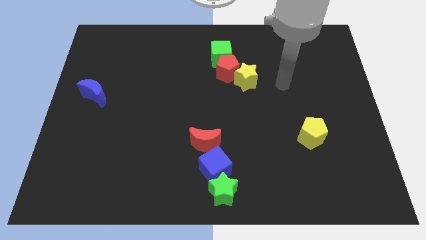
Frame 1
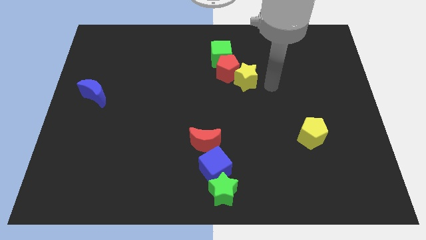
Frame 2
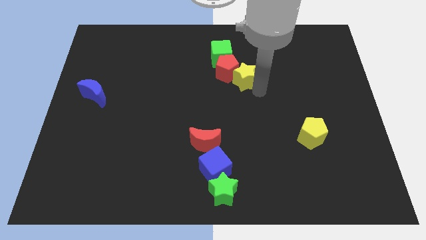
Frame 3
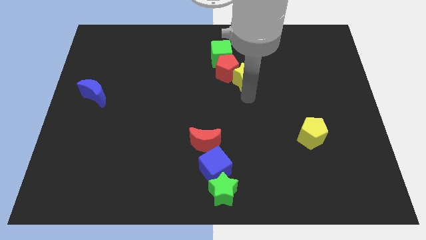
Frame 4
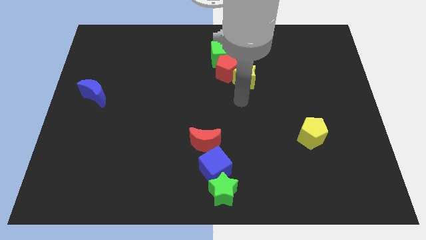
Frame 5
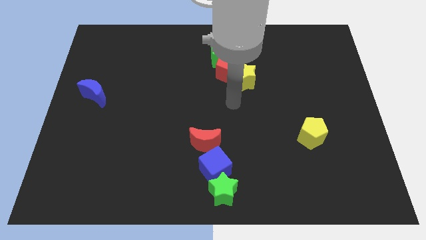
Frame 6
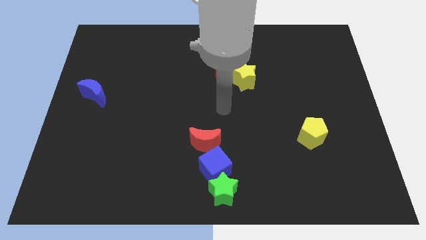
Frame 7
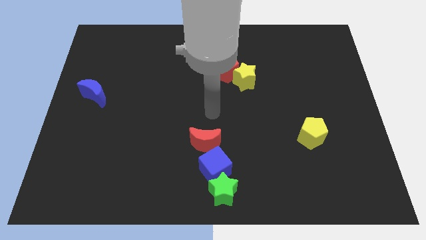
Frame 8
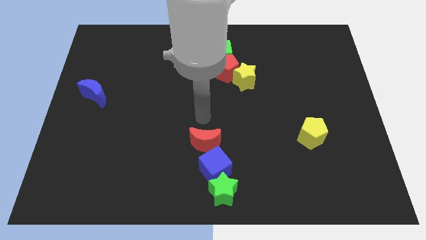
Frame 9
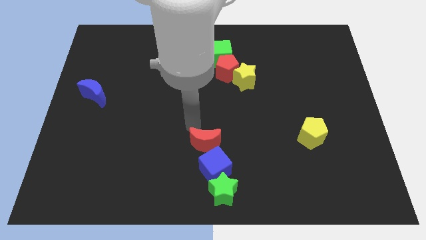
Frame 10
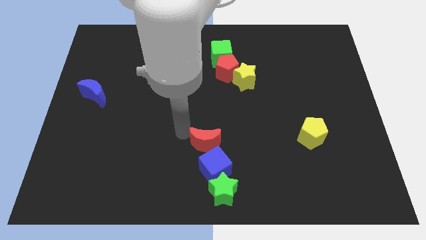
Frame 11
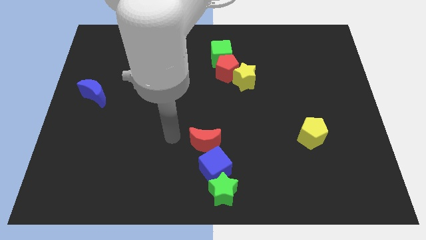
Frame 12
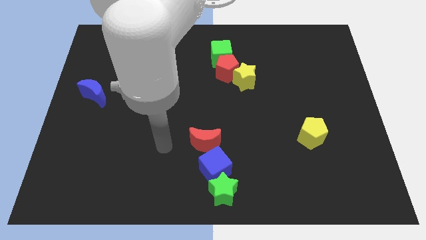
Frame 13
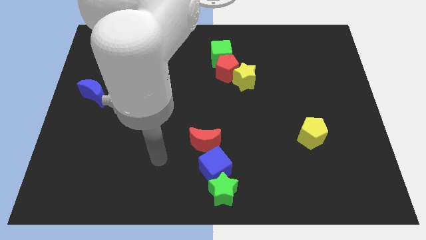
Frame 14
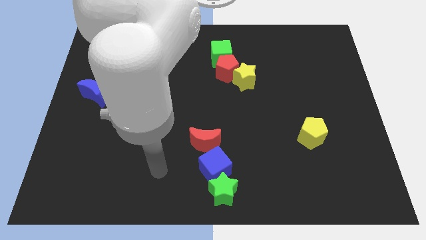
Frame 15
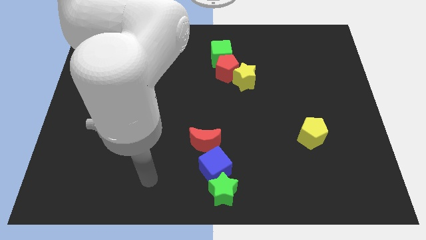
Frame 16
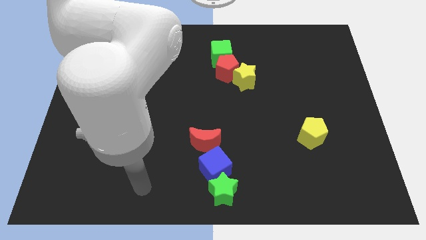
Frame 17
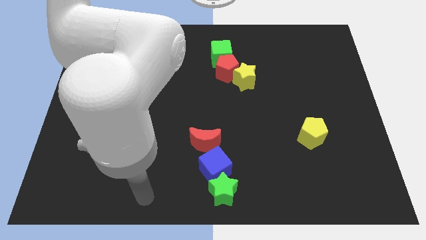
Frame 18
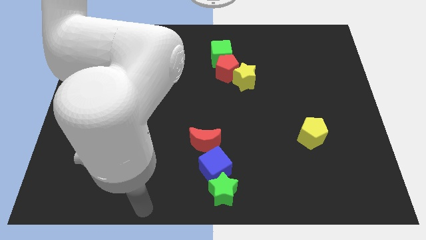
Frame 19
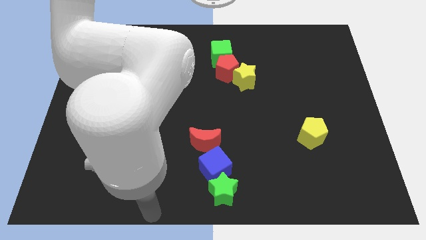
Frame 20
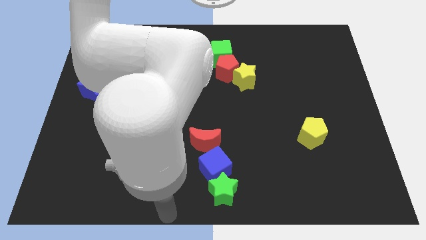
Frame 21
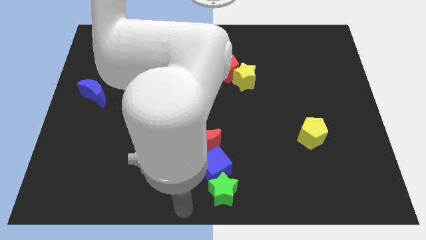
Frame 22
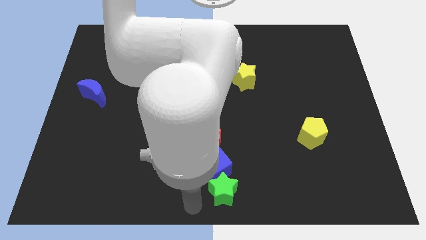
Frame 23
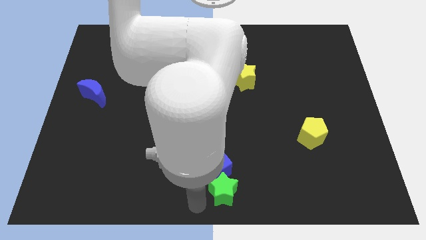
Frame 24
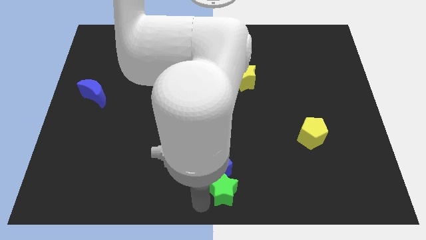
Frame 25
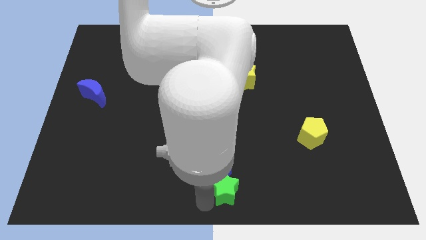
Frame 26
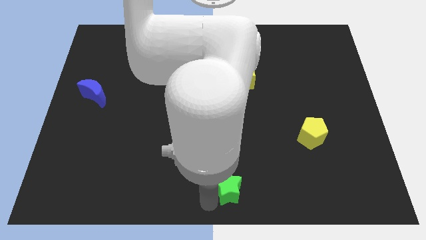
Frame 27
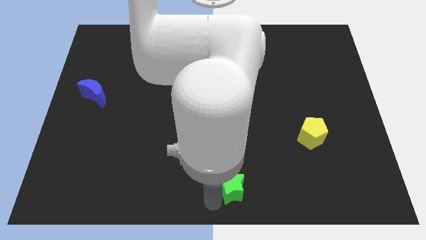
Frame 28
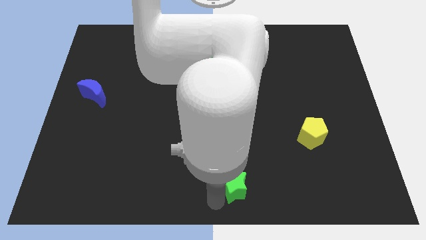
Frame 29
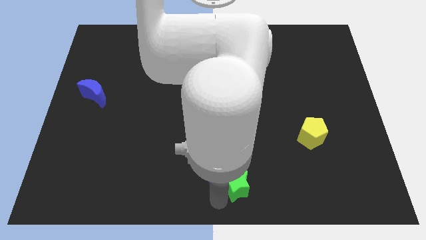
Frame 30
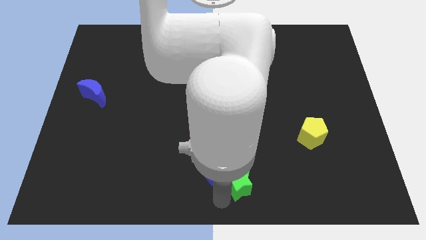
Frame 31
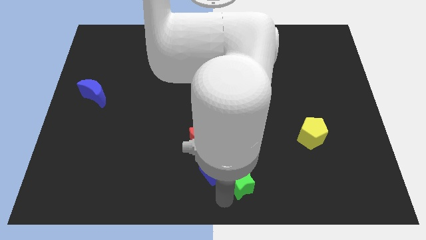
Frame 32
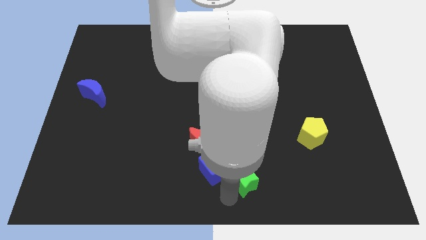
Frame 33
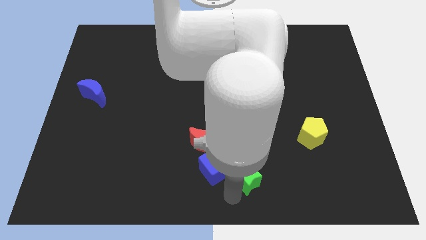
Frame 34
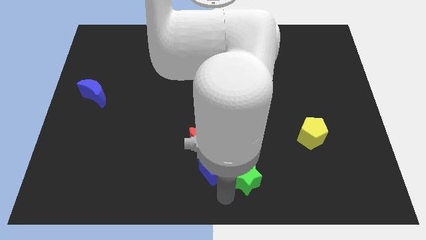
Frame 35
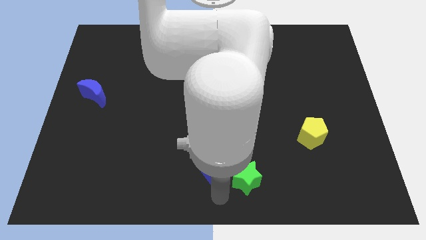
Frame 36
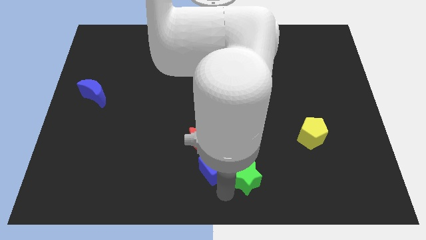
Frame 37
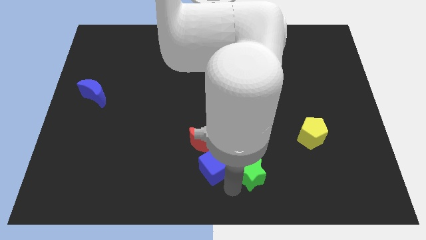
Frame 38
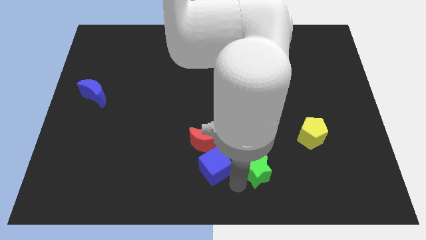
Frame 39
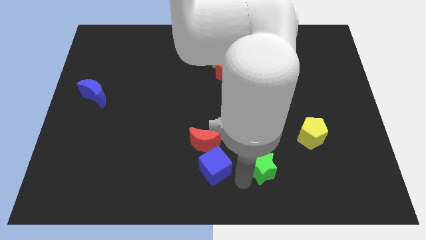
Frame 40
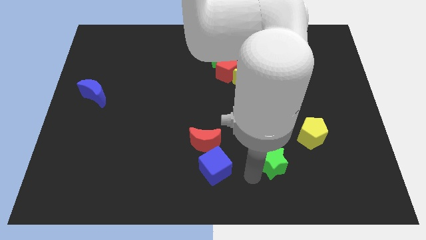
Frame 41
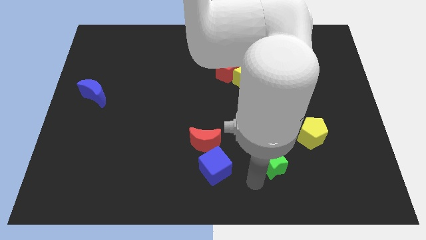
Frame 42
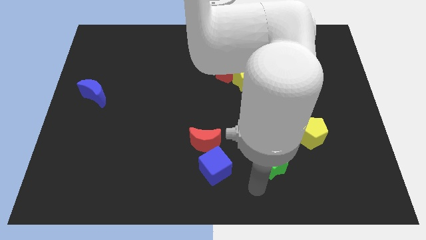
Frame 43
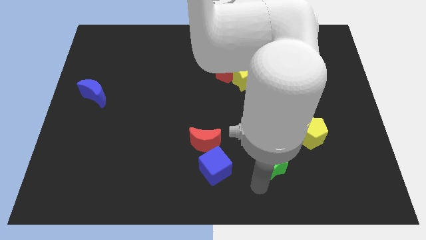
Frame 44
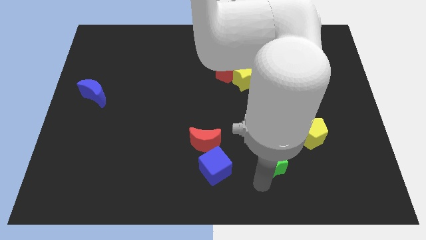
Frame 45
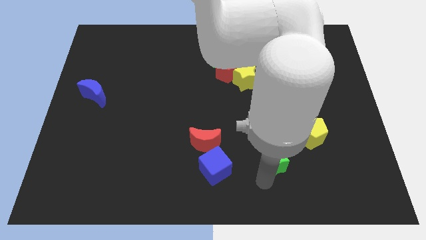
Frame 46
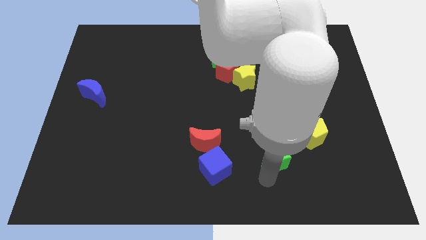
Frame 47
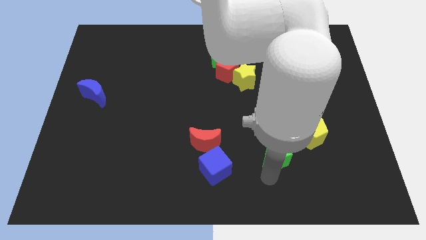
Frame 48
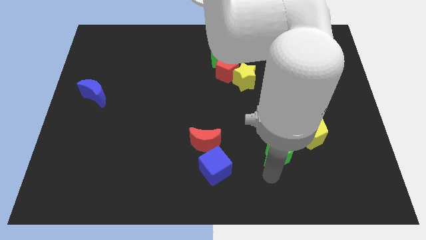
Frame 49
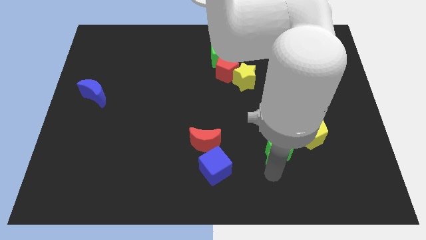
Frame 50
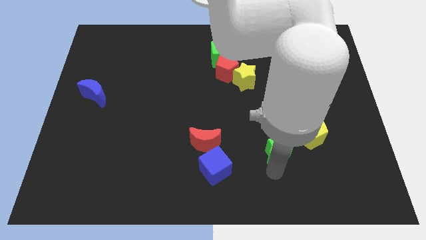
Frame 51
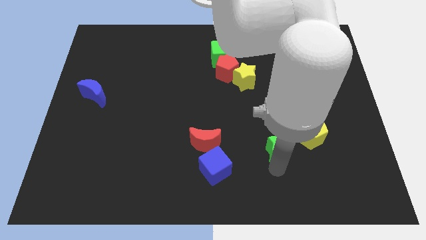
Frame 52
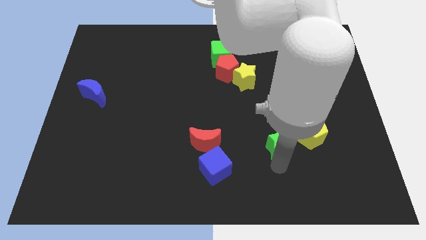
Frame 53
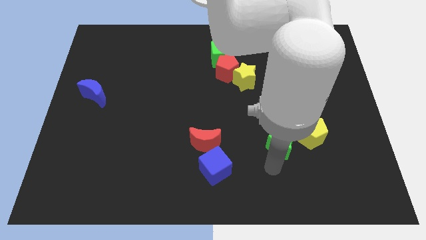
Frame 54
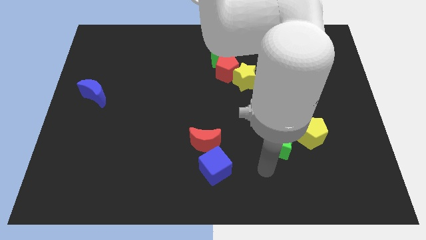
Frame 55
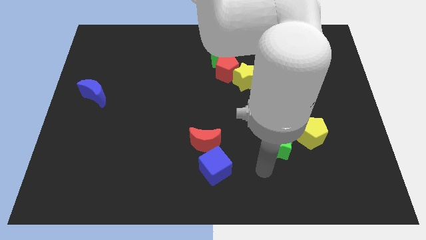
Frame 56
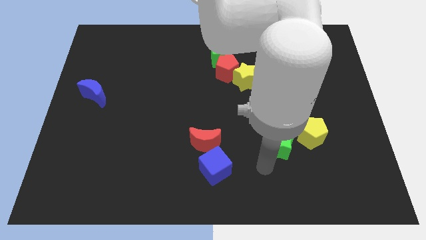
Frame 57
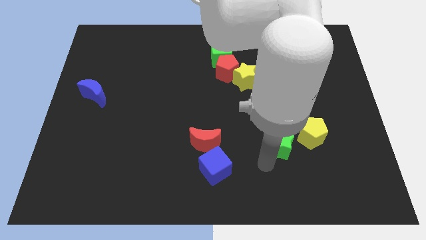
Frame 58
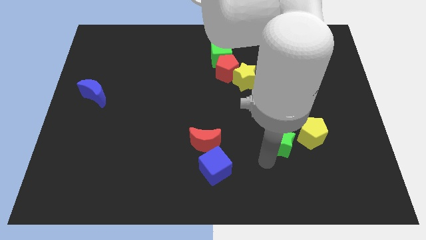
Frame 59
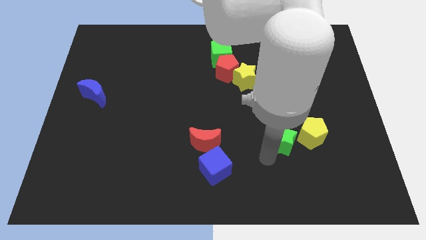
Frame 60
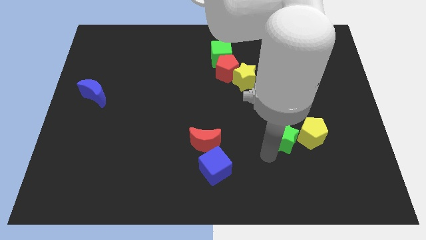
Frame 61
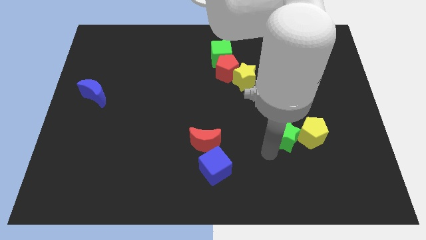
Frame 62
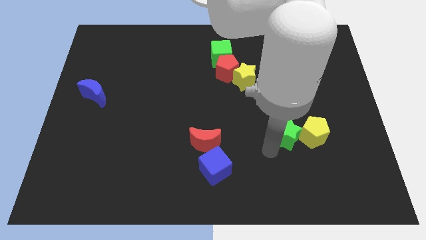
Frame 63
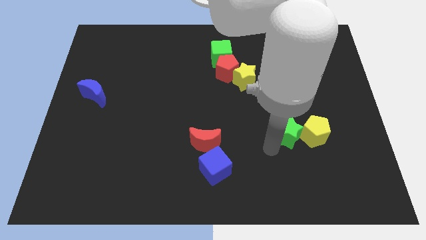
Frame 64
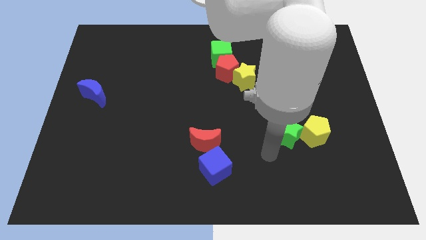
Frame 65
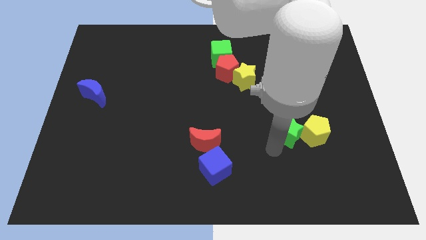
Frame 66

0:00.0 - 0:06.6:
slide the green star diagonally upwards and right

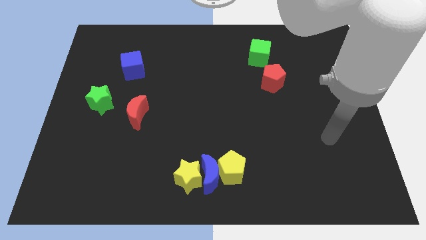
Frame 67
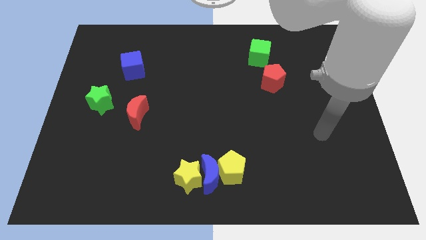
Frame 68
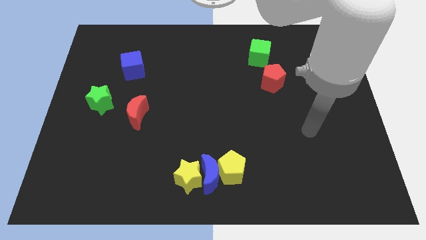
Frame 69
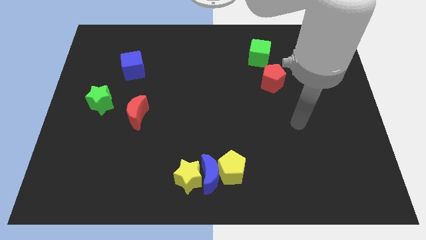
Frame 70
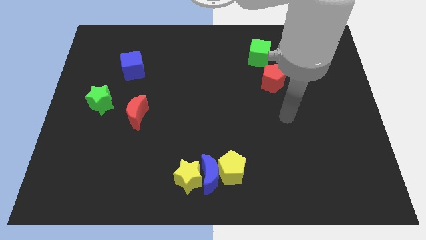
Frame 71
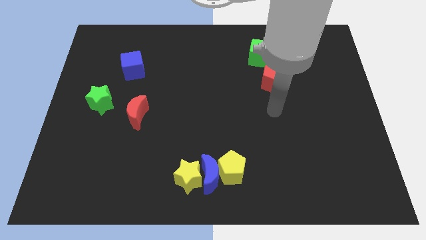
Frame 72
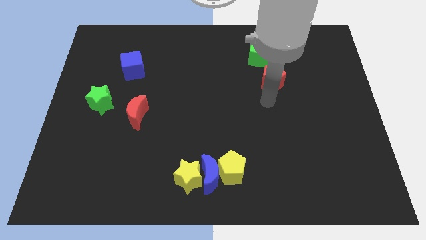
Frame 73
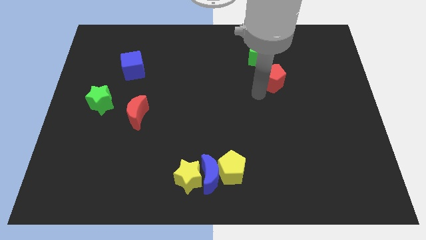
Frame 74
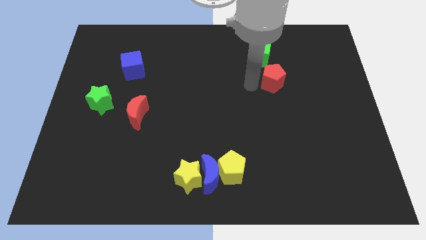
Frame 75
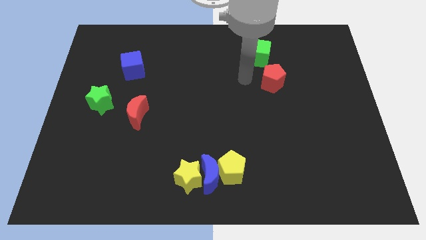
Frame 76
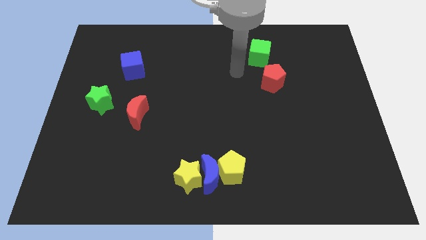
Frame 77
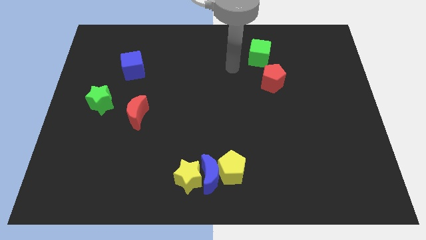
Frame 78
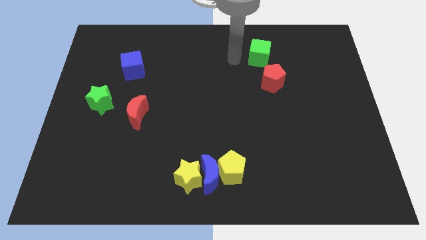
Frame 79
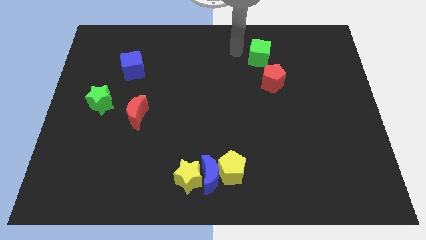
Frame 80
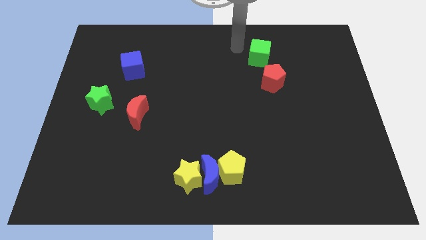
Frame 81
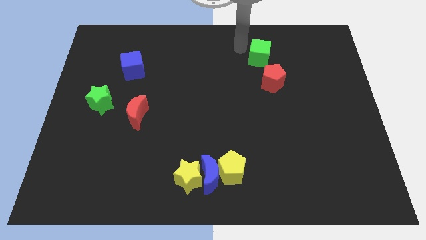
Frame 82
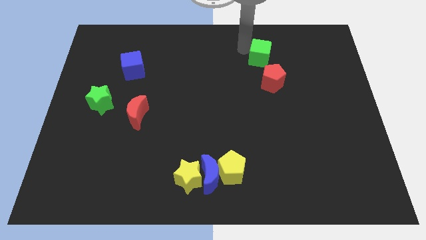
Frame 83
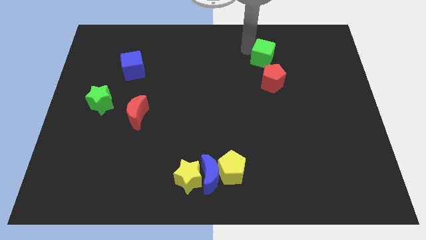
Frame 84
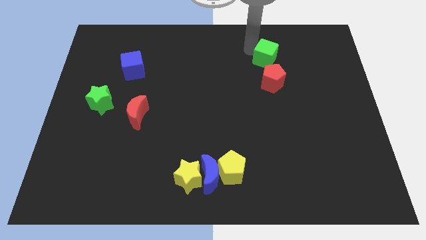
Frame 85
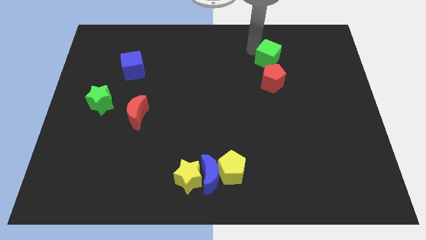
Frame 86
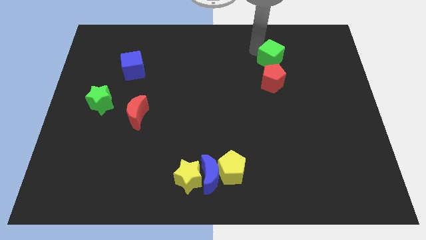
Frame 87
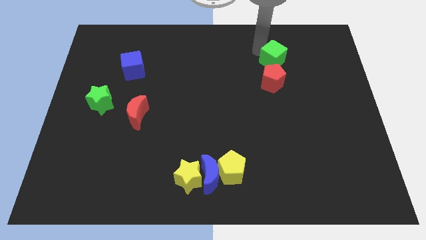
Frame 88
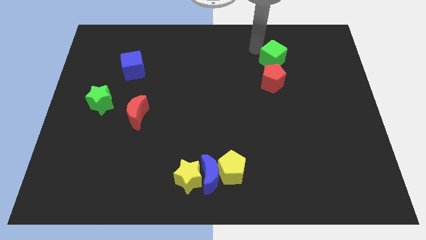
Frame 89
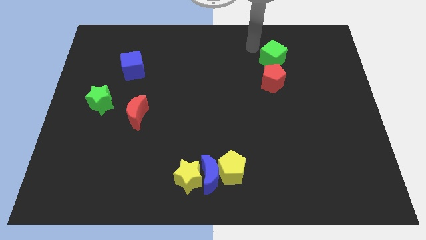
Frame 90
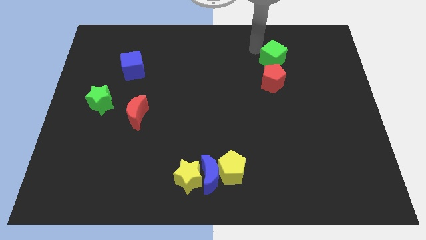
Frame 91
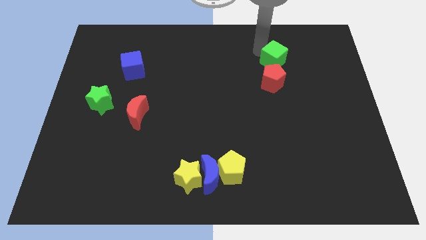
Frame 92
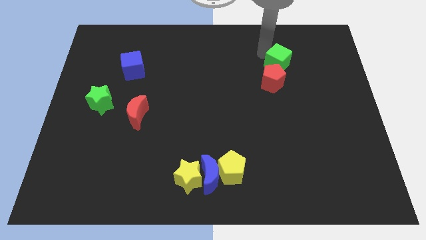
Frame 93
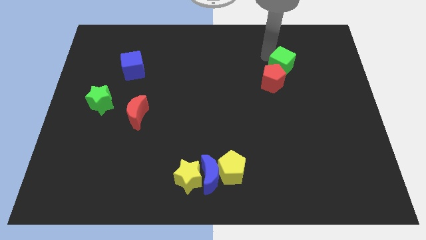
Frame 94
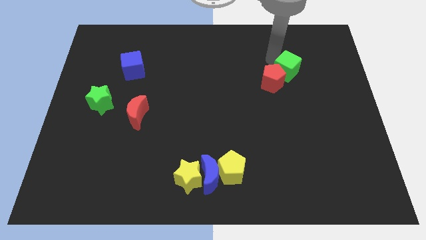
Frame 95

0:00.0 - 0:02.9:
move the green cube down and then to the right a little
